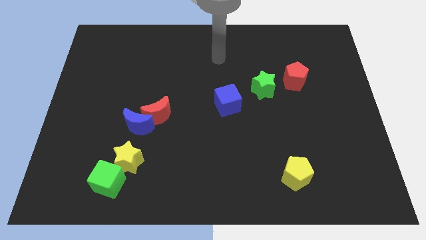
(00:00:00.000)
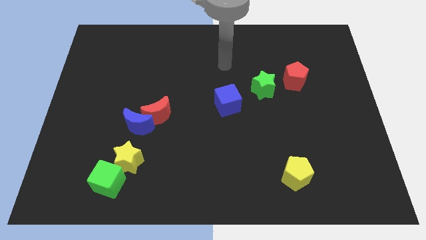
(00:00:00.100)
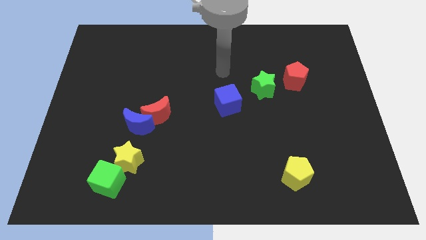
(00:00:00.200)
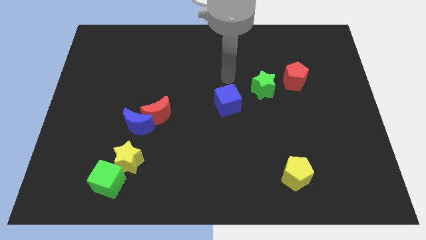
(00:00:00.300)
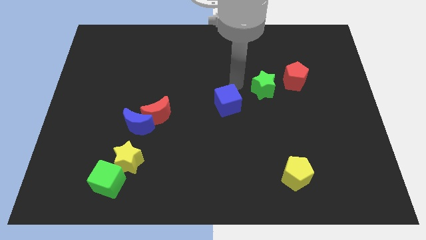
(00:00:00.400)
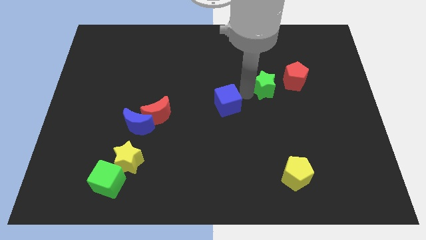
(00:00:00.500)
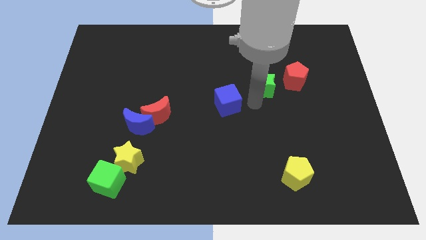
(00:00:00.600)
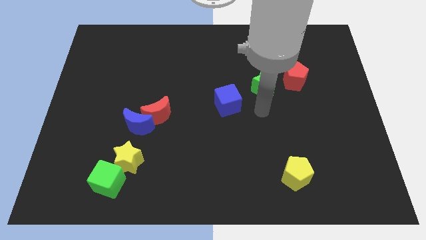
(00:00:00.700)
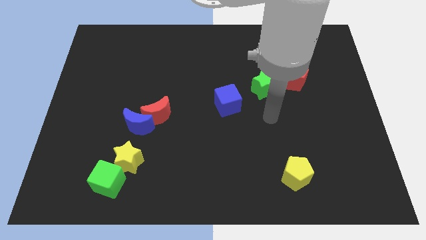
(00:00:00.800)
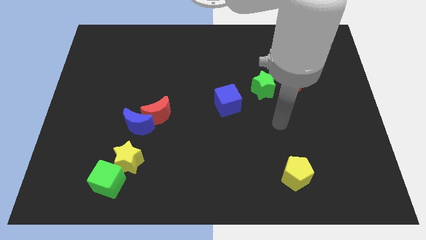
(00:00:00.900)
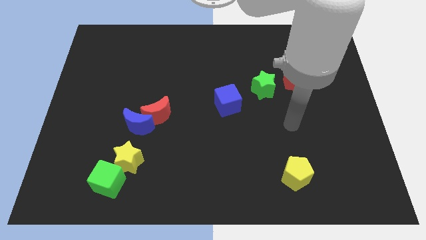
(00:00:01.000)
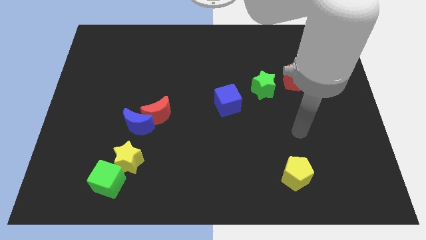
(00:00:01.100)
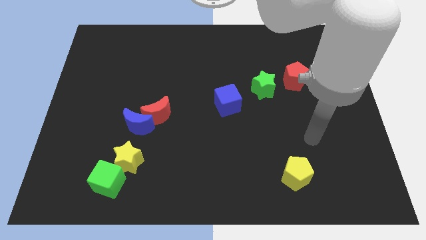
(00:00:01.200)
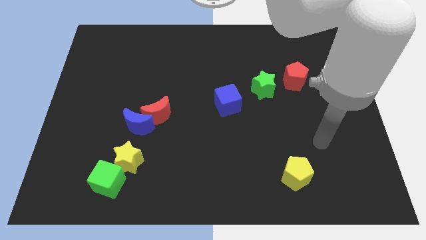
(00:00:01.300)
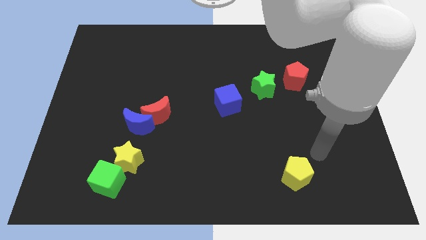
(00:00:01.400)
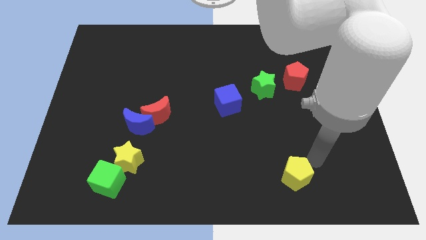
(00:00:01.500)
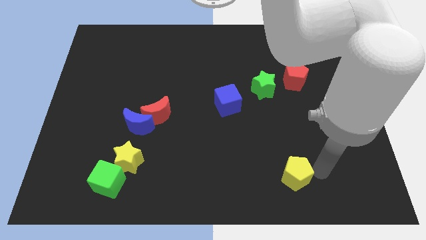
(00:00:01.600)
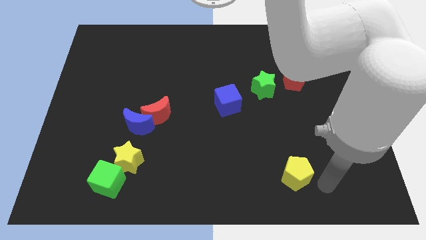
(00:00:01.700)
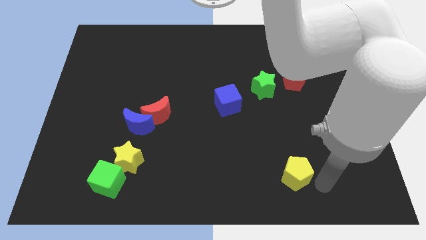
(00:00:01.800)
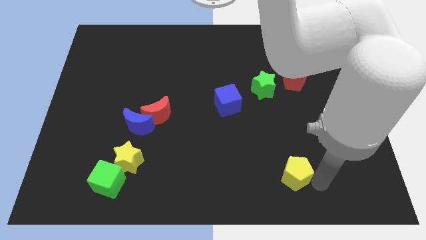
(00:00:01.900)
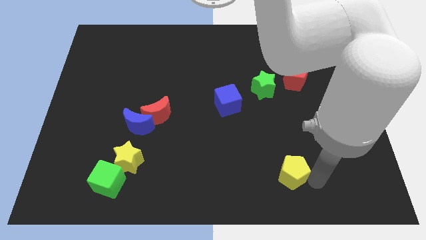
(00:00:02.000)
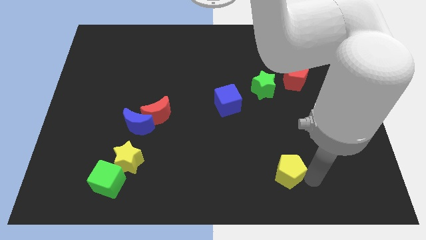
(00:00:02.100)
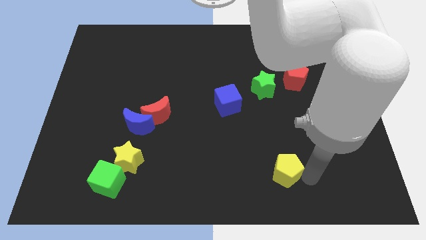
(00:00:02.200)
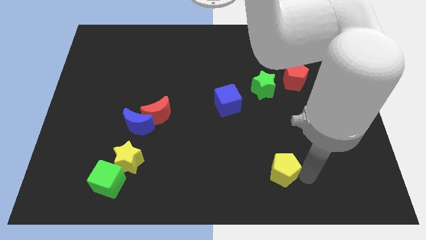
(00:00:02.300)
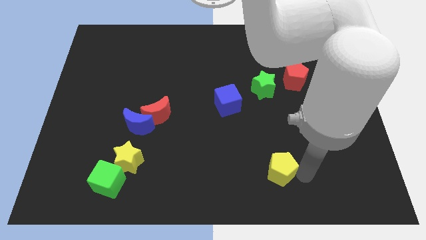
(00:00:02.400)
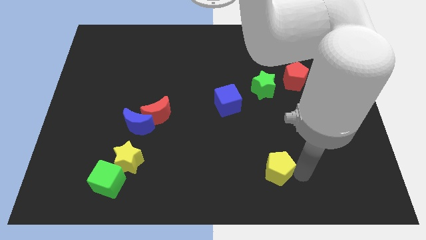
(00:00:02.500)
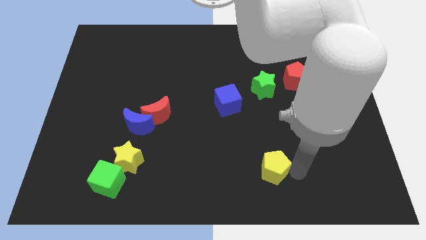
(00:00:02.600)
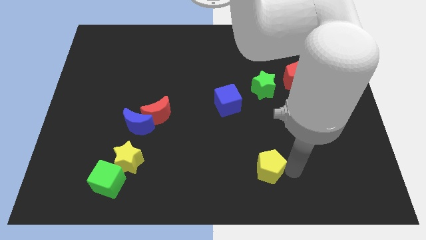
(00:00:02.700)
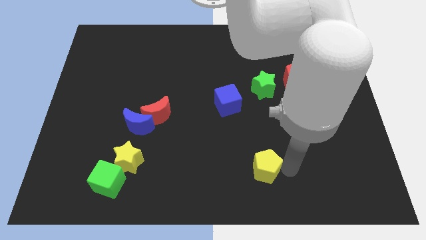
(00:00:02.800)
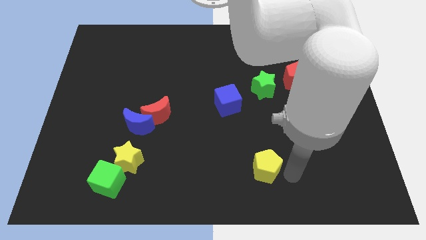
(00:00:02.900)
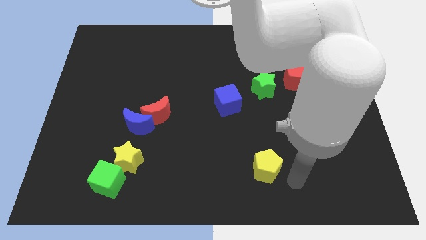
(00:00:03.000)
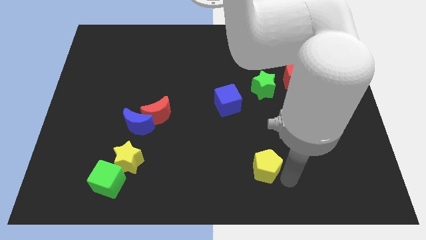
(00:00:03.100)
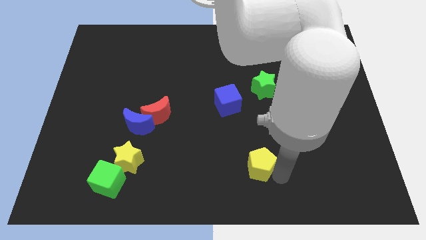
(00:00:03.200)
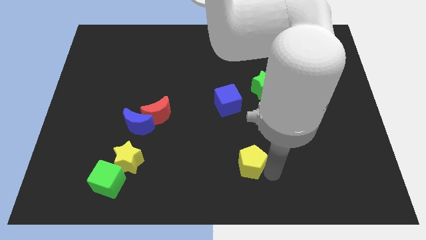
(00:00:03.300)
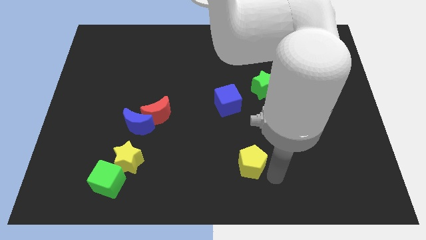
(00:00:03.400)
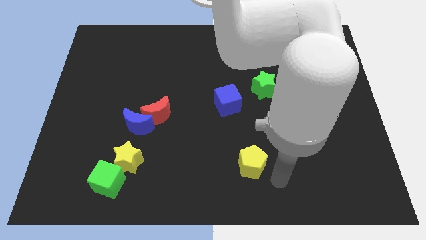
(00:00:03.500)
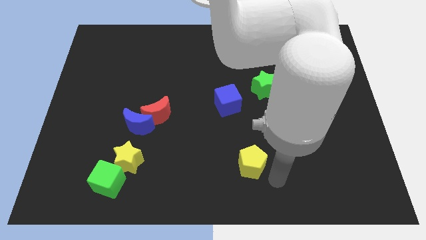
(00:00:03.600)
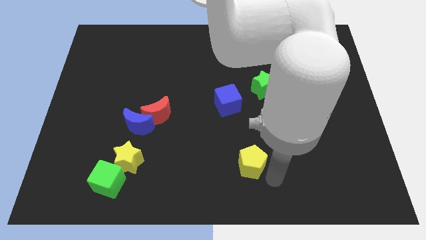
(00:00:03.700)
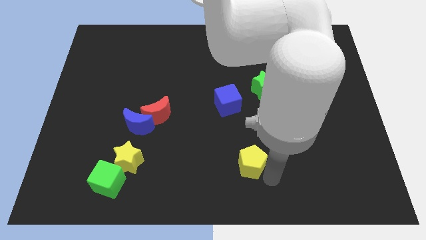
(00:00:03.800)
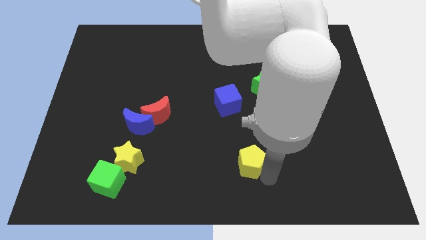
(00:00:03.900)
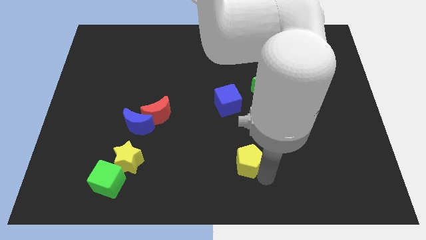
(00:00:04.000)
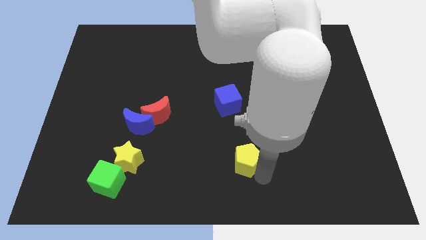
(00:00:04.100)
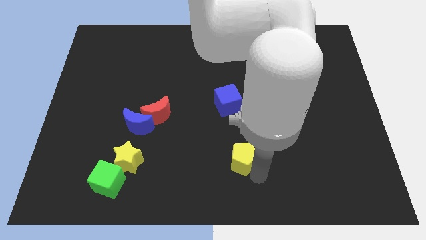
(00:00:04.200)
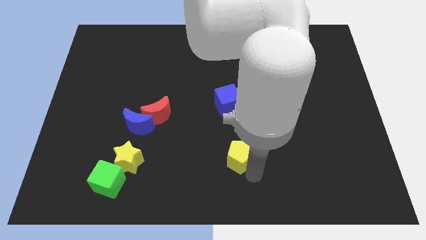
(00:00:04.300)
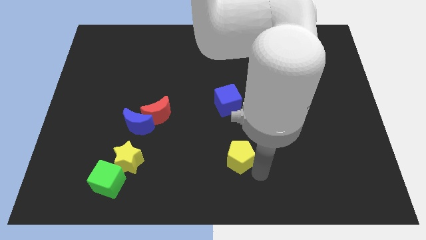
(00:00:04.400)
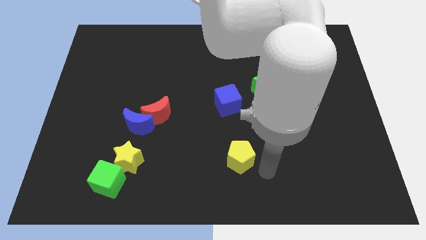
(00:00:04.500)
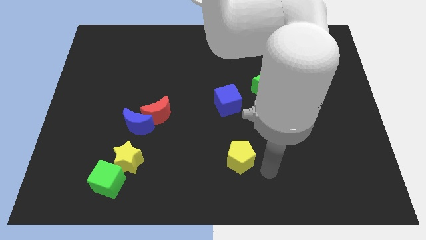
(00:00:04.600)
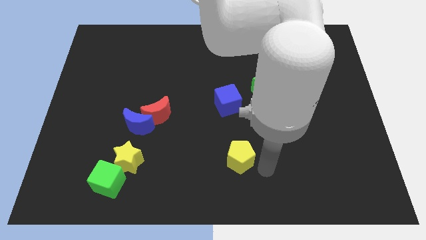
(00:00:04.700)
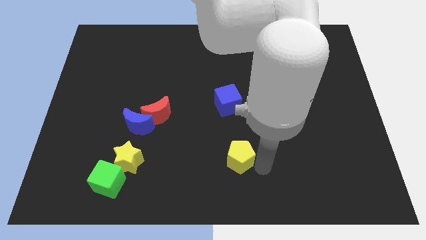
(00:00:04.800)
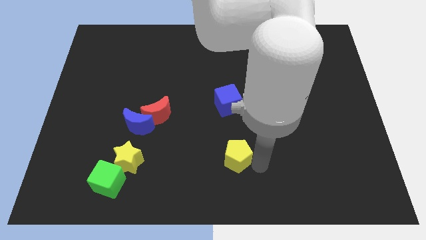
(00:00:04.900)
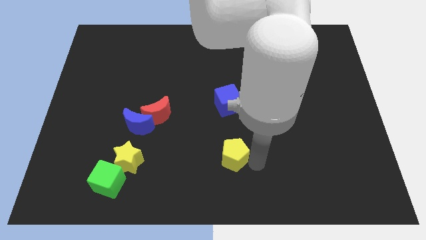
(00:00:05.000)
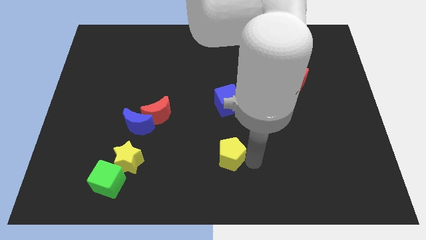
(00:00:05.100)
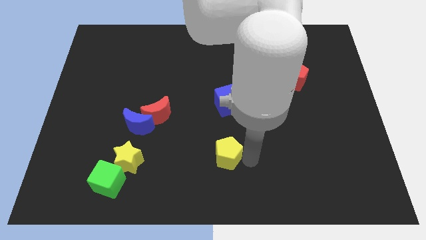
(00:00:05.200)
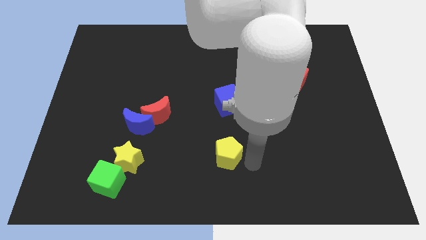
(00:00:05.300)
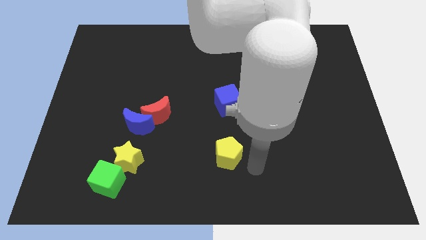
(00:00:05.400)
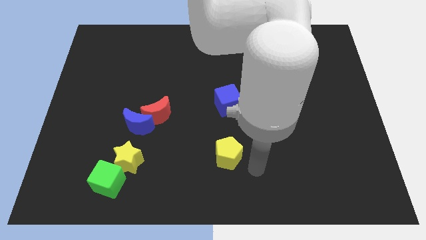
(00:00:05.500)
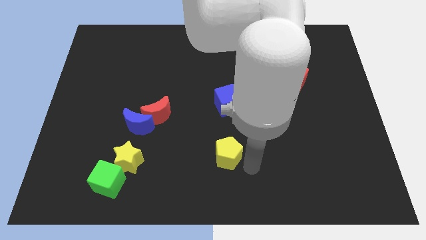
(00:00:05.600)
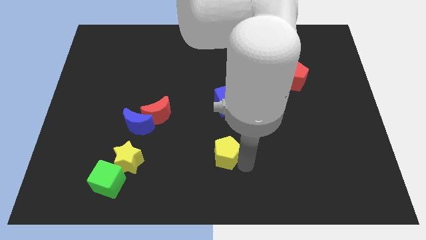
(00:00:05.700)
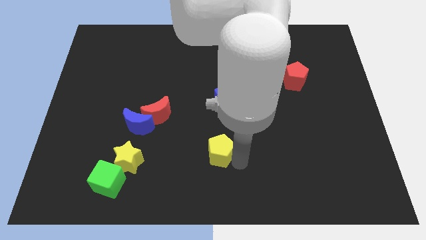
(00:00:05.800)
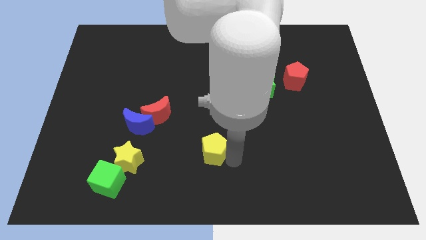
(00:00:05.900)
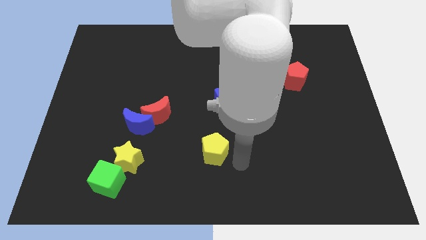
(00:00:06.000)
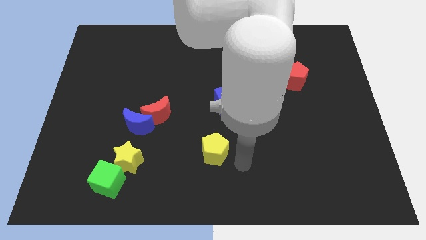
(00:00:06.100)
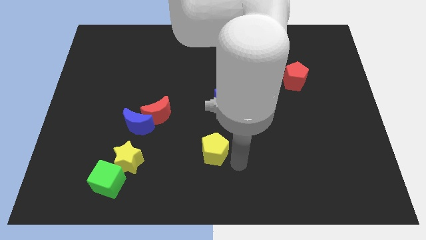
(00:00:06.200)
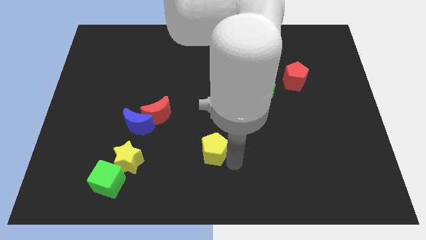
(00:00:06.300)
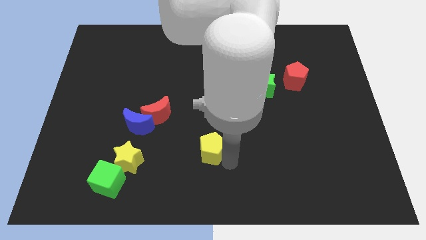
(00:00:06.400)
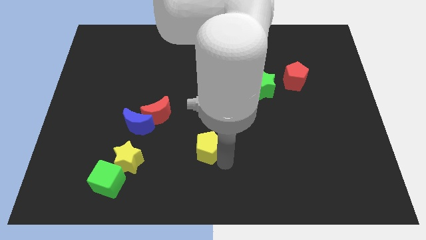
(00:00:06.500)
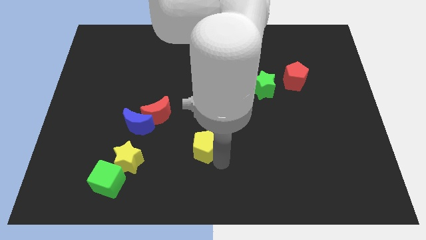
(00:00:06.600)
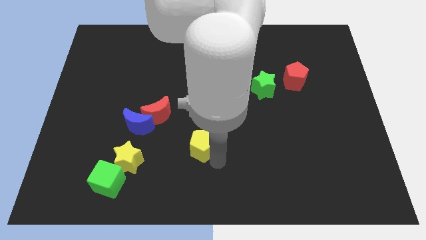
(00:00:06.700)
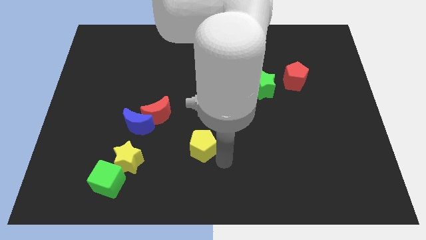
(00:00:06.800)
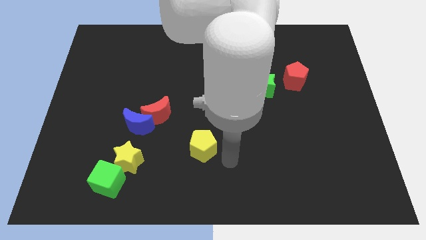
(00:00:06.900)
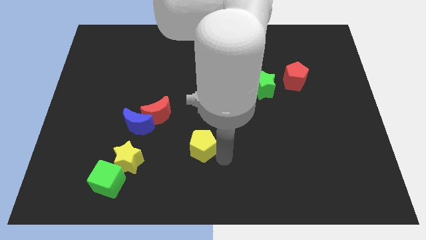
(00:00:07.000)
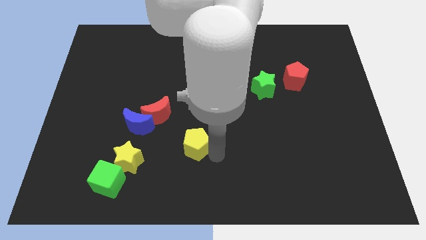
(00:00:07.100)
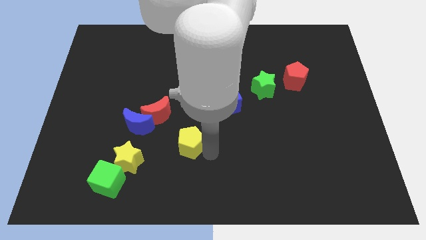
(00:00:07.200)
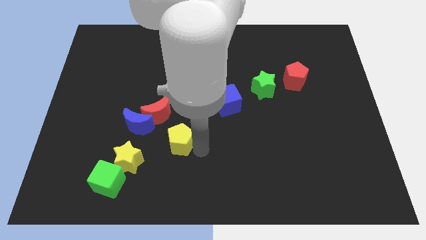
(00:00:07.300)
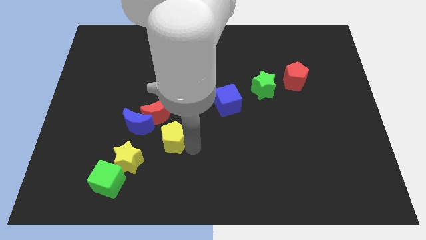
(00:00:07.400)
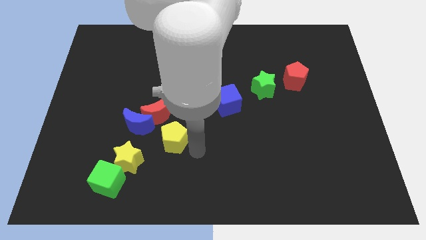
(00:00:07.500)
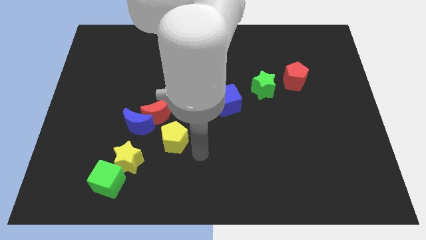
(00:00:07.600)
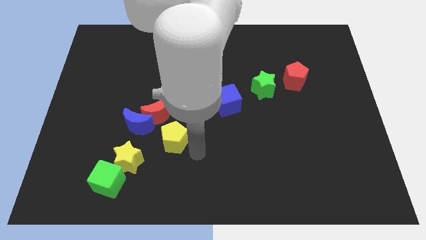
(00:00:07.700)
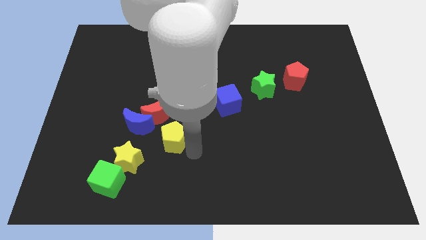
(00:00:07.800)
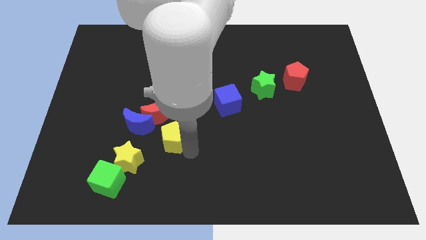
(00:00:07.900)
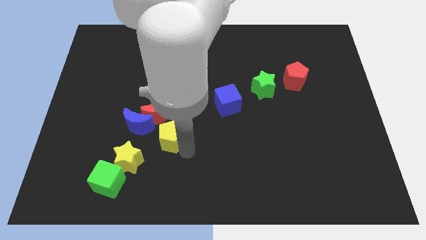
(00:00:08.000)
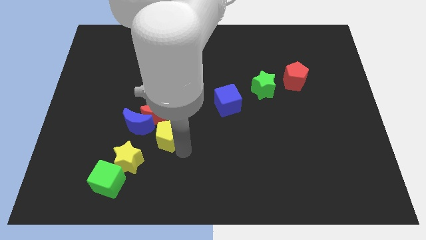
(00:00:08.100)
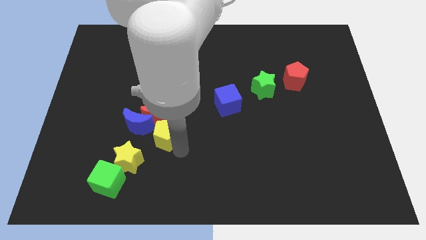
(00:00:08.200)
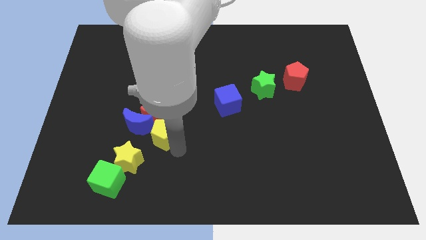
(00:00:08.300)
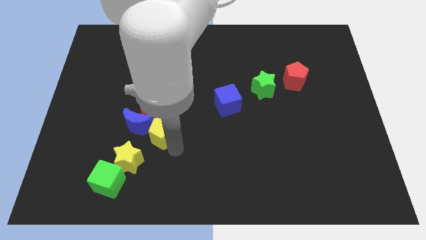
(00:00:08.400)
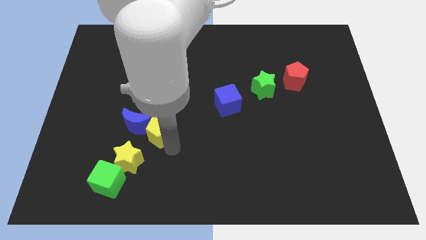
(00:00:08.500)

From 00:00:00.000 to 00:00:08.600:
slide the yellow pentagon to the blue moon
